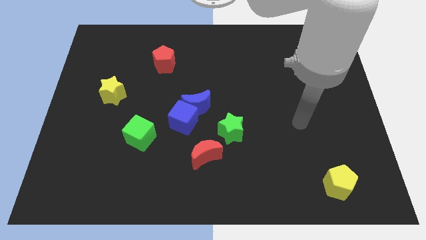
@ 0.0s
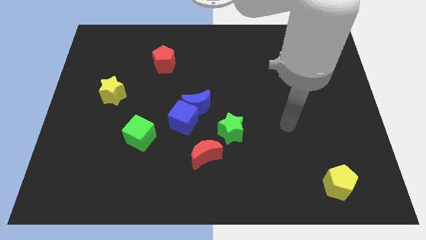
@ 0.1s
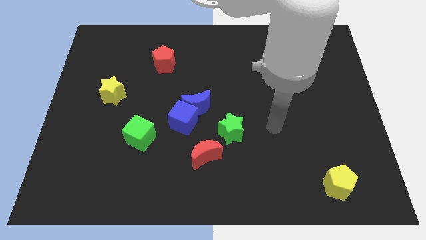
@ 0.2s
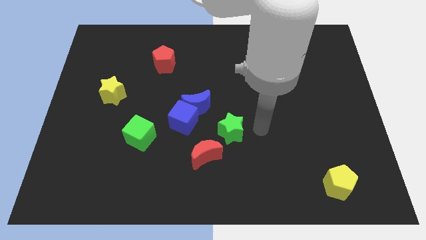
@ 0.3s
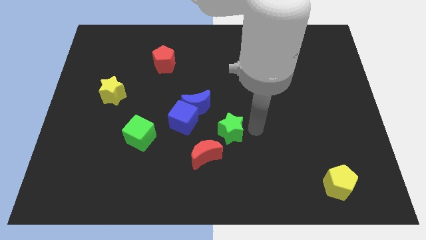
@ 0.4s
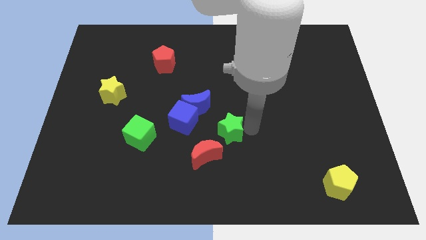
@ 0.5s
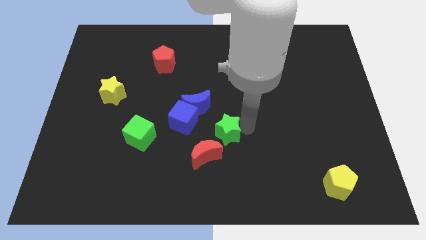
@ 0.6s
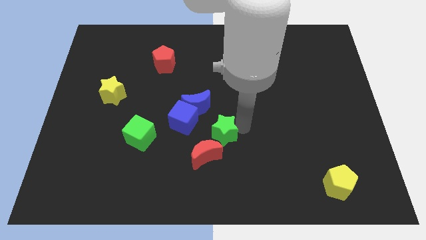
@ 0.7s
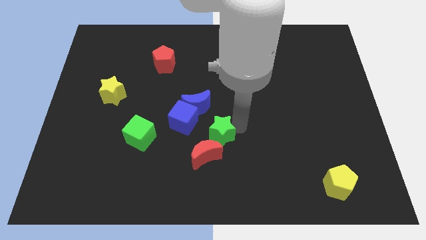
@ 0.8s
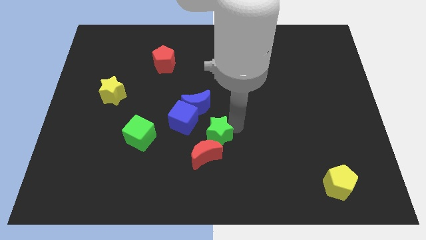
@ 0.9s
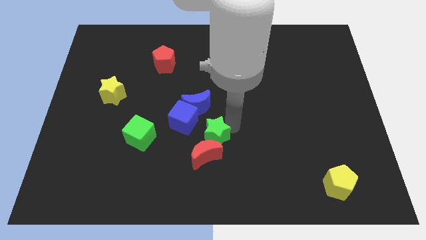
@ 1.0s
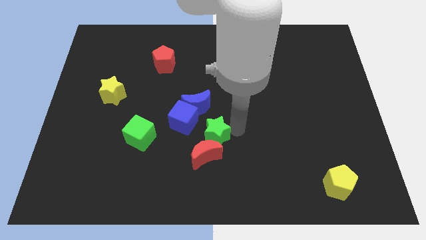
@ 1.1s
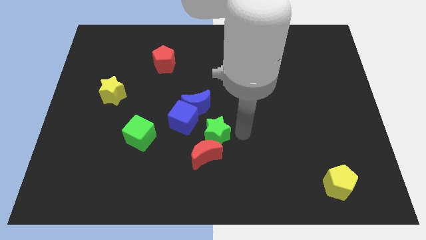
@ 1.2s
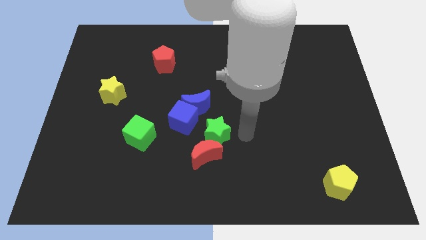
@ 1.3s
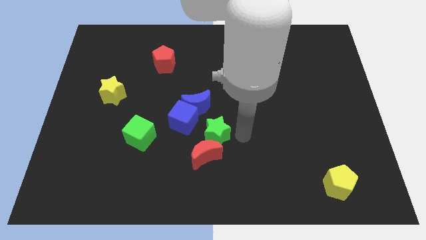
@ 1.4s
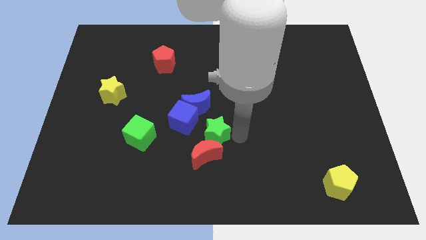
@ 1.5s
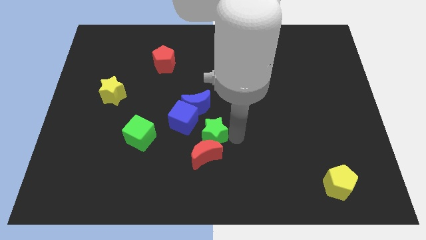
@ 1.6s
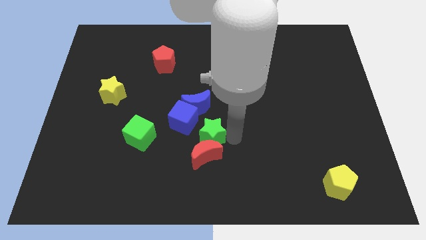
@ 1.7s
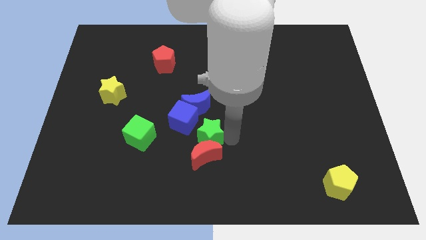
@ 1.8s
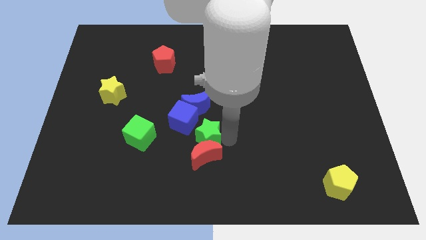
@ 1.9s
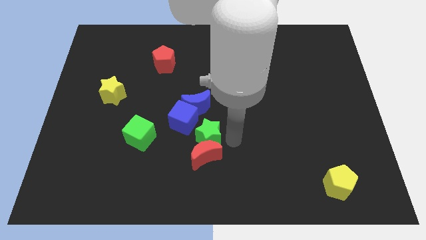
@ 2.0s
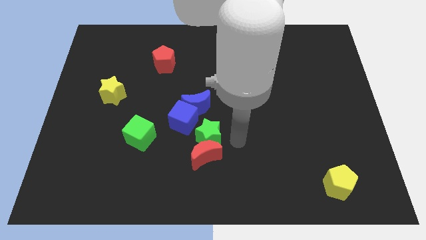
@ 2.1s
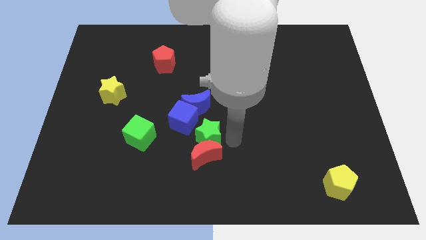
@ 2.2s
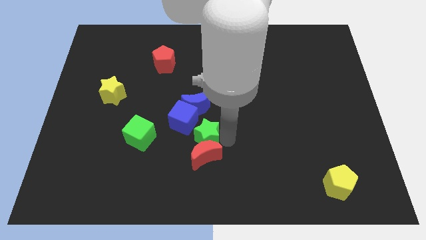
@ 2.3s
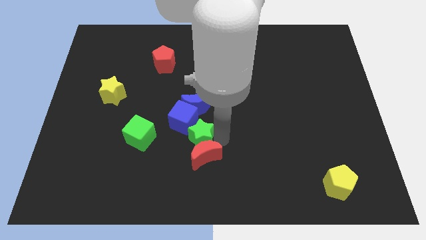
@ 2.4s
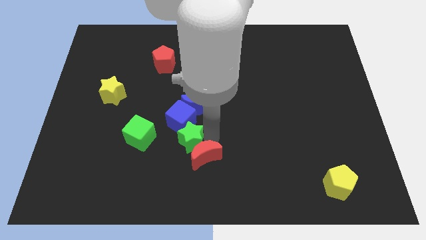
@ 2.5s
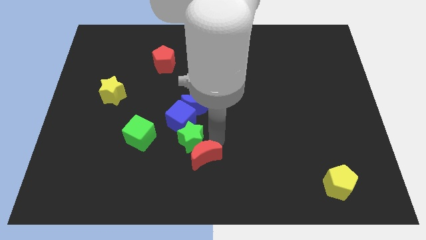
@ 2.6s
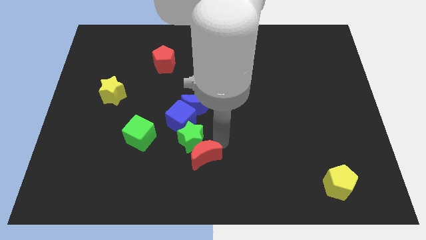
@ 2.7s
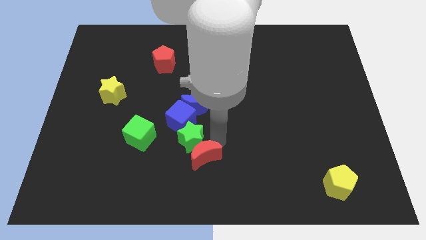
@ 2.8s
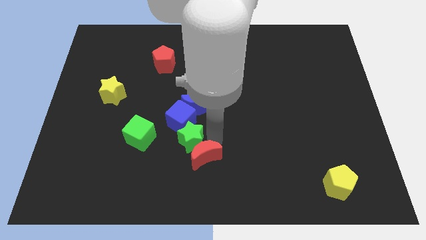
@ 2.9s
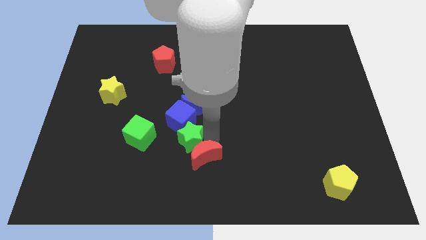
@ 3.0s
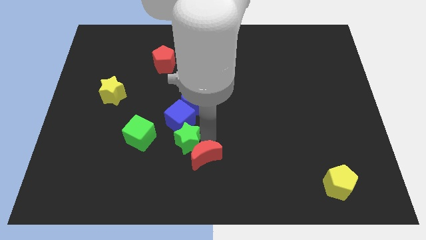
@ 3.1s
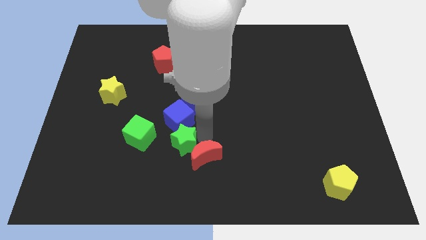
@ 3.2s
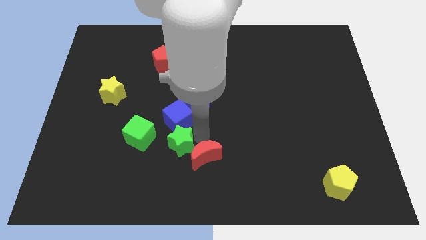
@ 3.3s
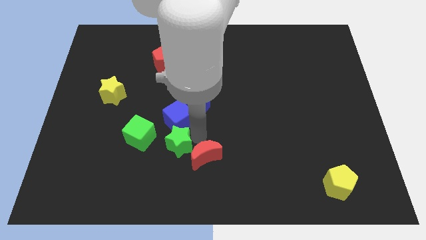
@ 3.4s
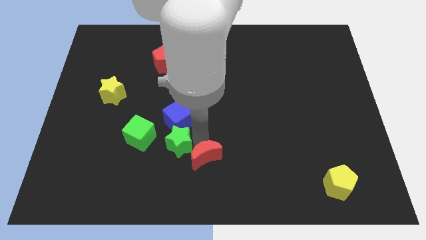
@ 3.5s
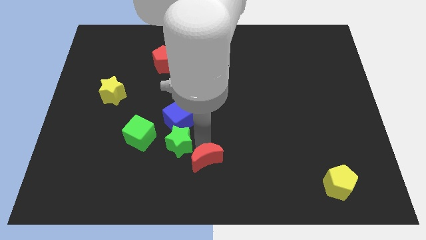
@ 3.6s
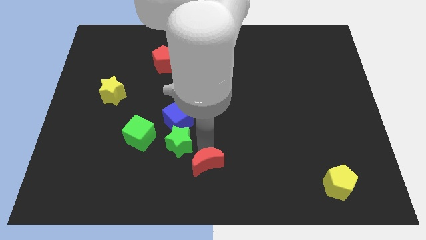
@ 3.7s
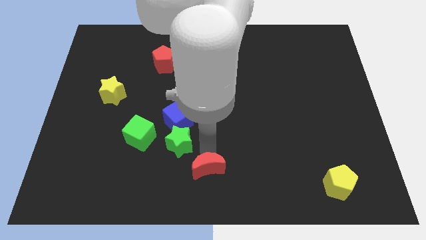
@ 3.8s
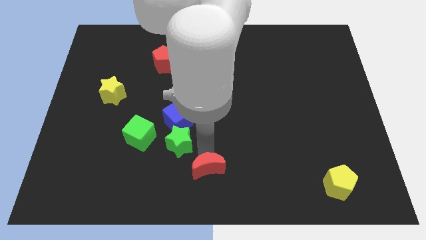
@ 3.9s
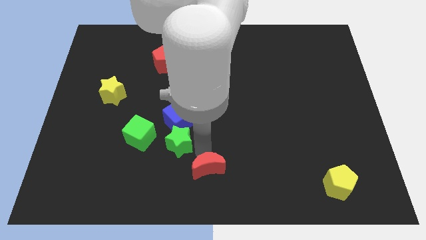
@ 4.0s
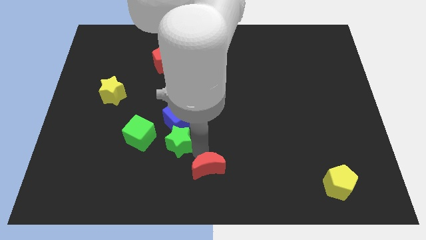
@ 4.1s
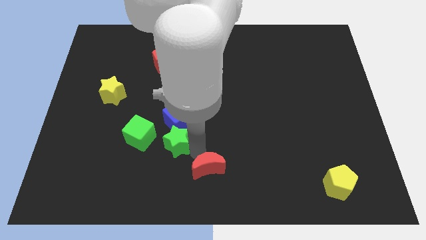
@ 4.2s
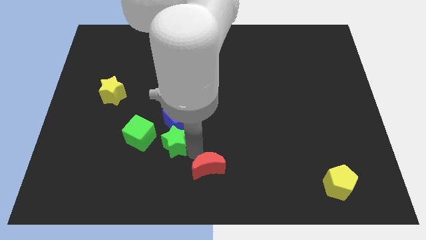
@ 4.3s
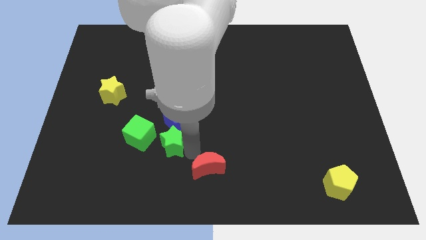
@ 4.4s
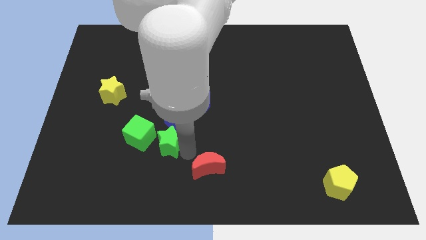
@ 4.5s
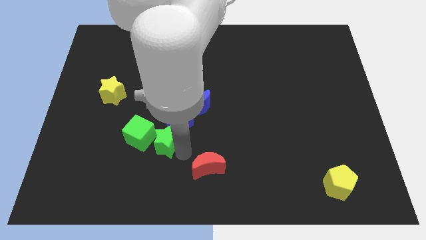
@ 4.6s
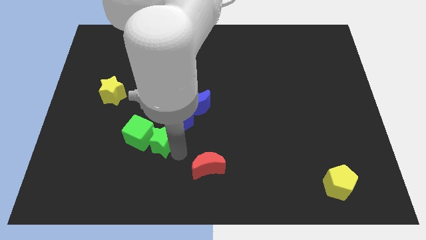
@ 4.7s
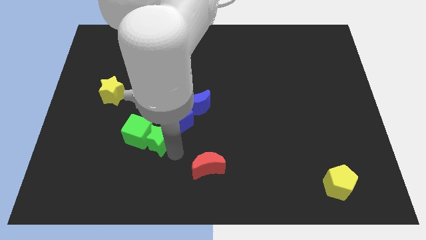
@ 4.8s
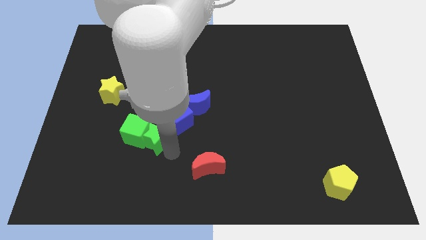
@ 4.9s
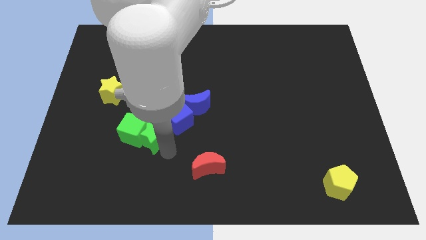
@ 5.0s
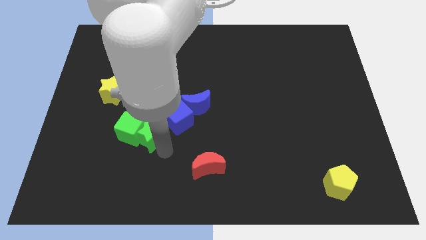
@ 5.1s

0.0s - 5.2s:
move the green star just left of the blue cube

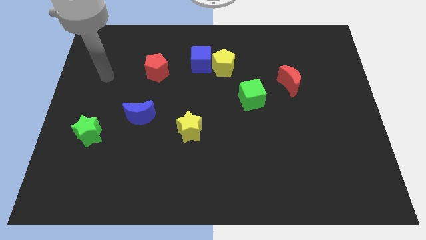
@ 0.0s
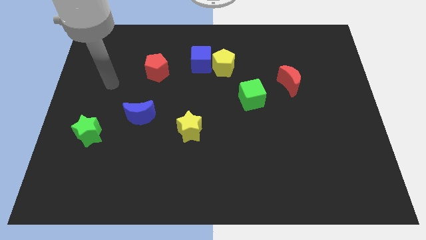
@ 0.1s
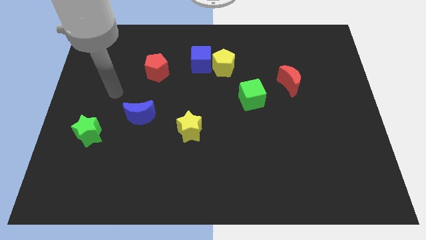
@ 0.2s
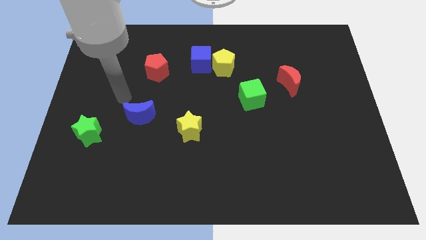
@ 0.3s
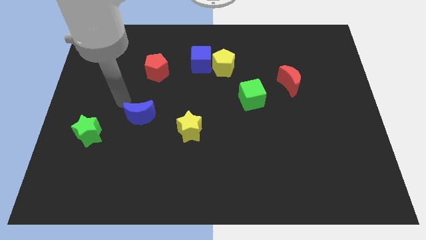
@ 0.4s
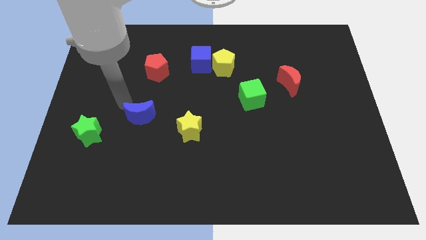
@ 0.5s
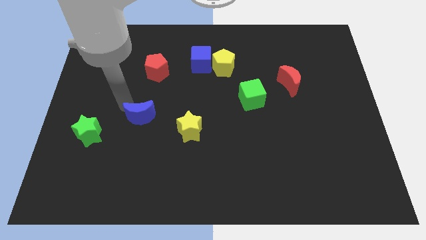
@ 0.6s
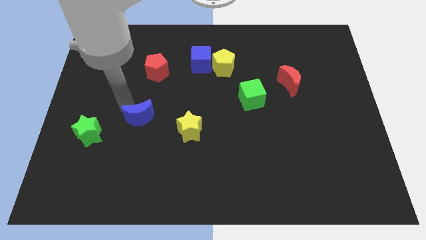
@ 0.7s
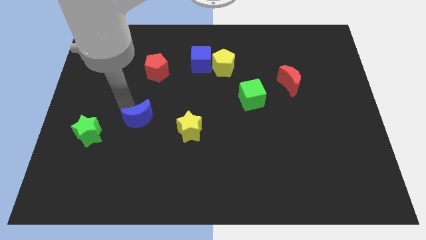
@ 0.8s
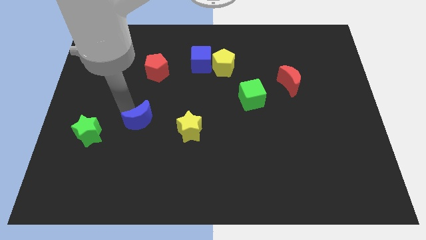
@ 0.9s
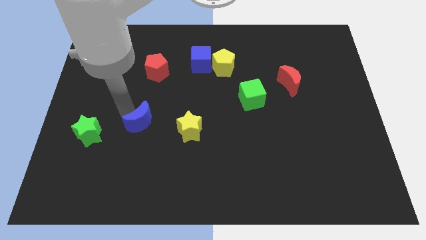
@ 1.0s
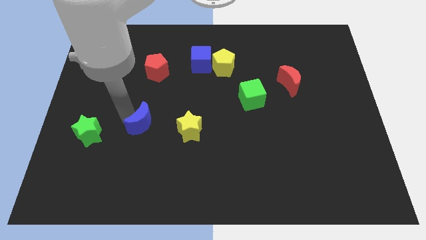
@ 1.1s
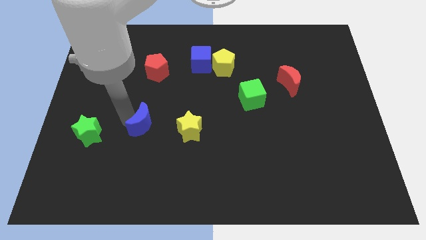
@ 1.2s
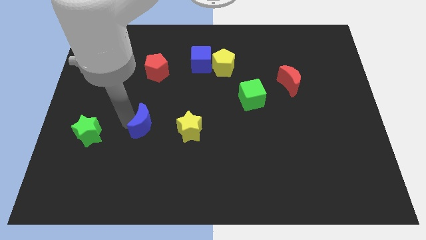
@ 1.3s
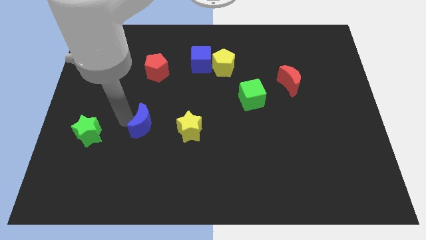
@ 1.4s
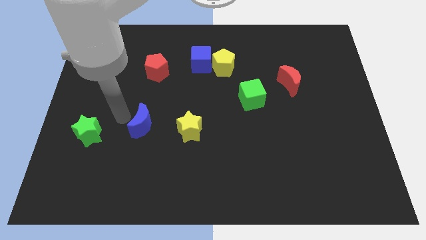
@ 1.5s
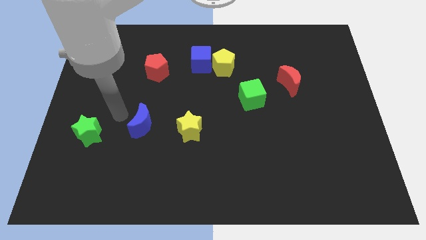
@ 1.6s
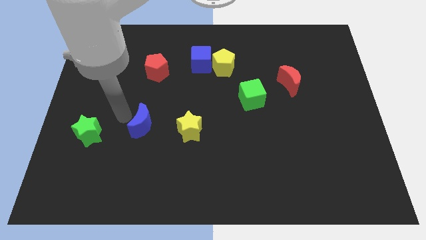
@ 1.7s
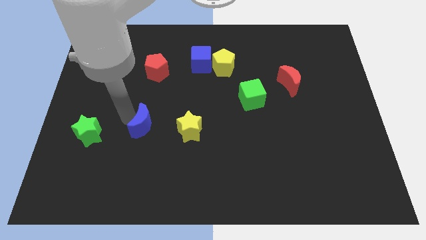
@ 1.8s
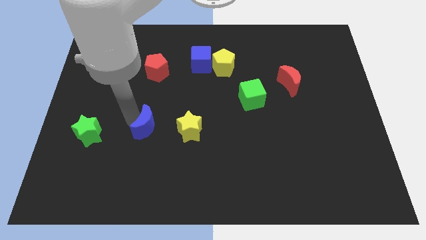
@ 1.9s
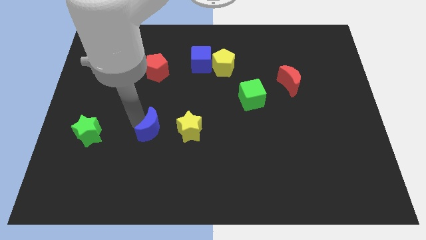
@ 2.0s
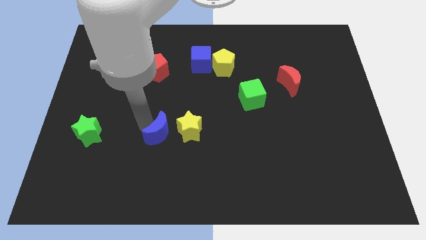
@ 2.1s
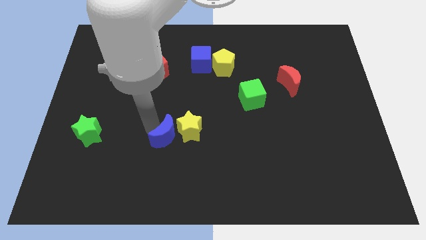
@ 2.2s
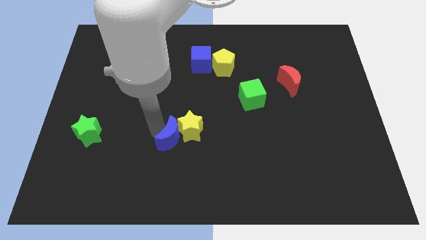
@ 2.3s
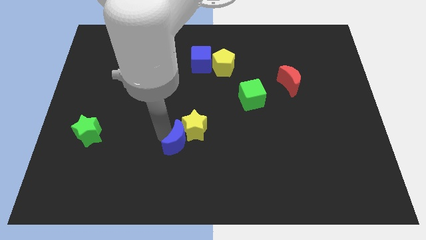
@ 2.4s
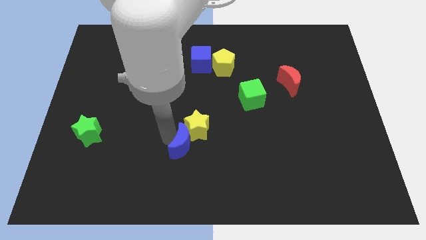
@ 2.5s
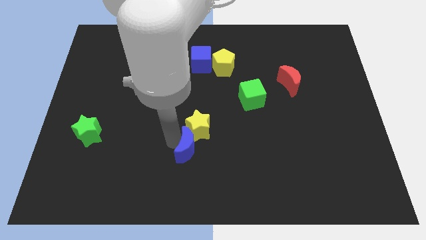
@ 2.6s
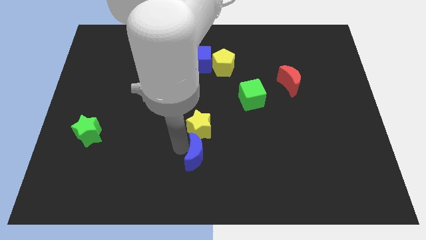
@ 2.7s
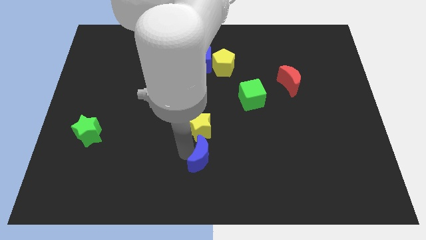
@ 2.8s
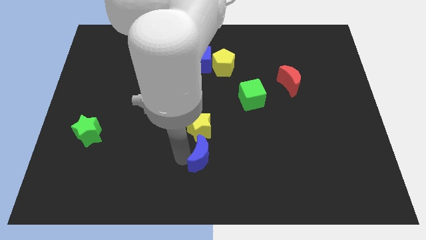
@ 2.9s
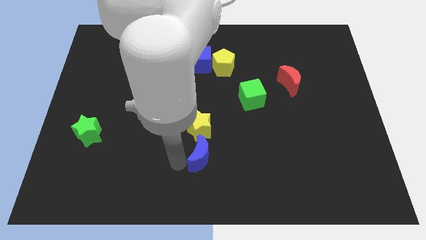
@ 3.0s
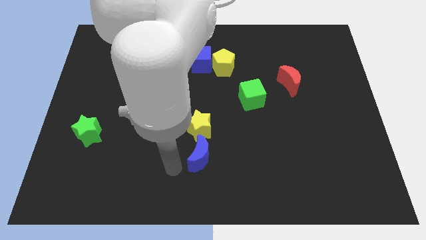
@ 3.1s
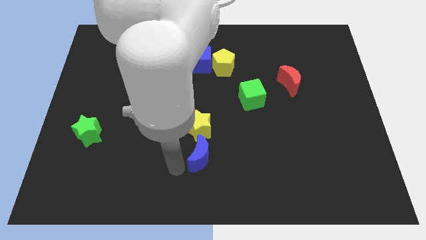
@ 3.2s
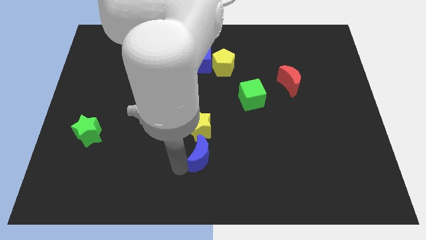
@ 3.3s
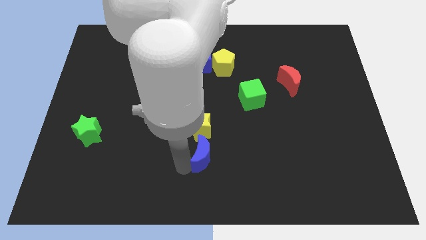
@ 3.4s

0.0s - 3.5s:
push the blue moon to the bottom right side of the yellow star
